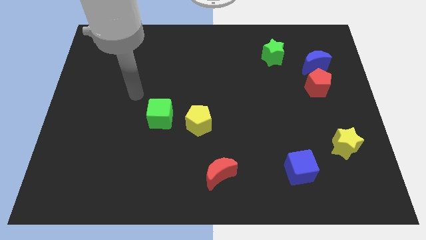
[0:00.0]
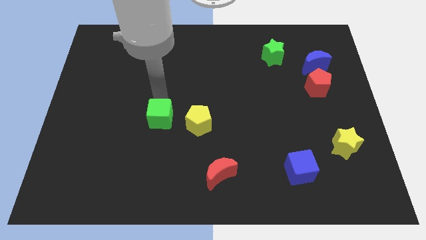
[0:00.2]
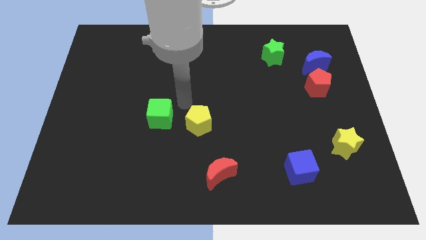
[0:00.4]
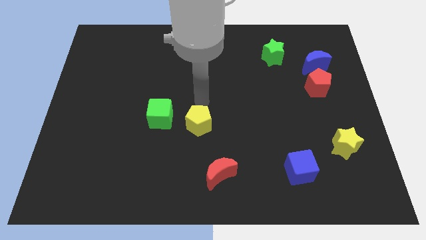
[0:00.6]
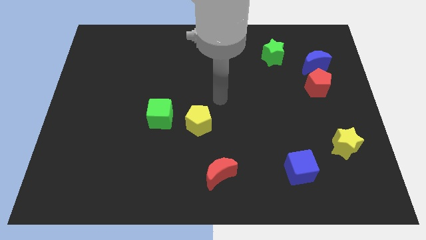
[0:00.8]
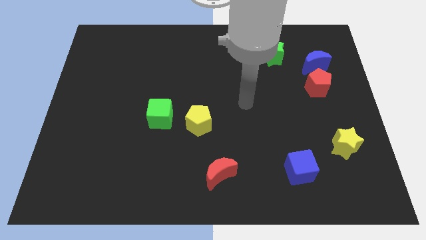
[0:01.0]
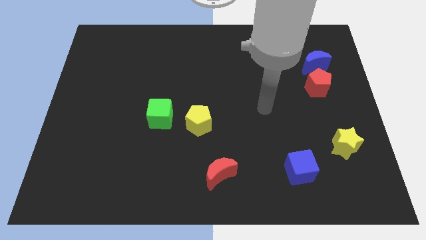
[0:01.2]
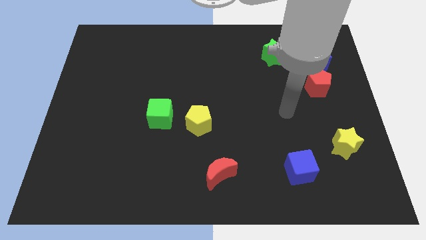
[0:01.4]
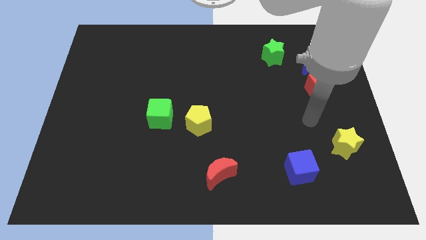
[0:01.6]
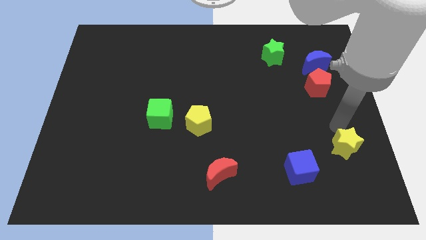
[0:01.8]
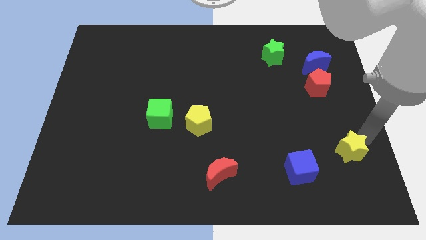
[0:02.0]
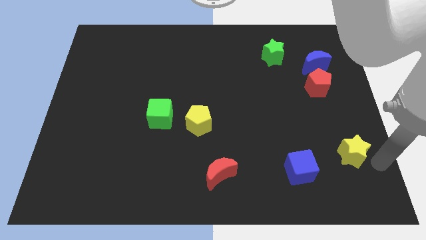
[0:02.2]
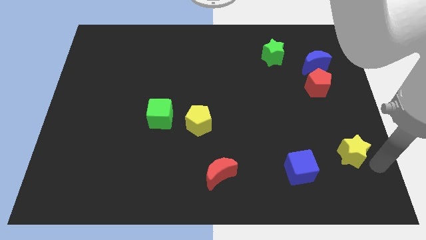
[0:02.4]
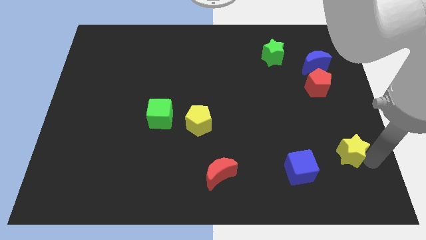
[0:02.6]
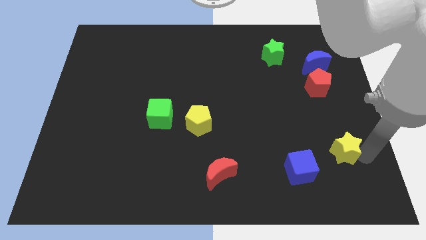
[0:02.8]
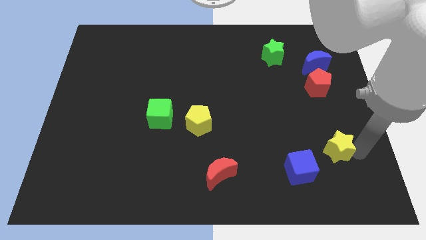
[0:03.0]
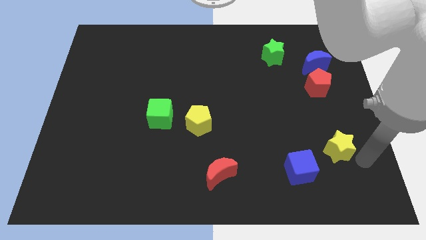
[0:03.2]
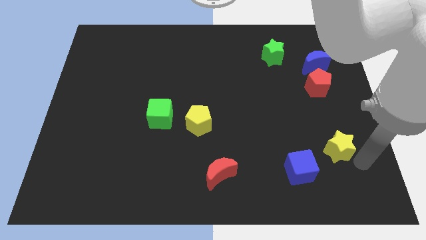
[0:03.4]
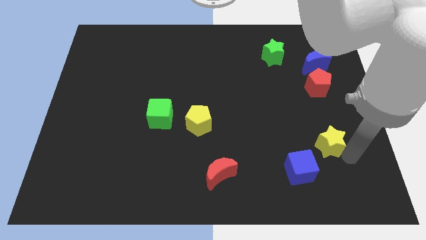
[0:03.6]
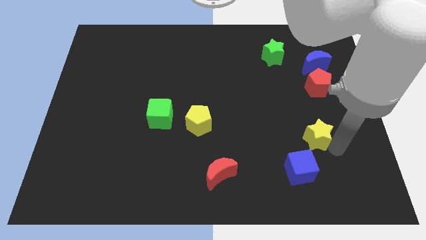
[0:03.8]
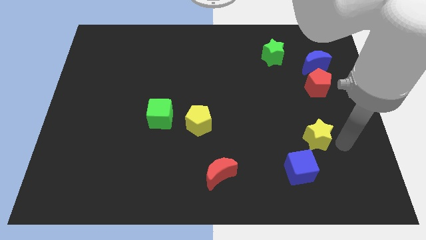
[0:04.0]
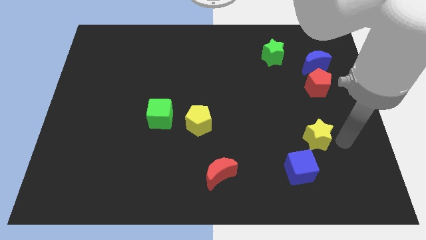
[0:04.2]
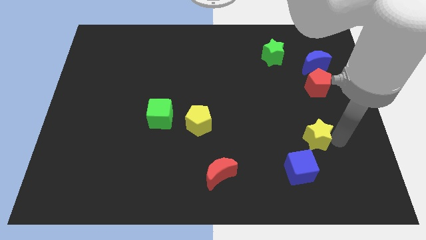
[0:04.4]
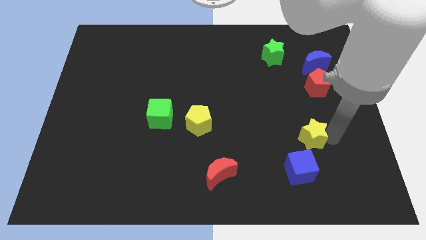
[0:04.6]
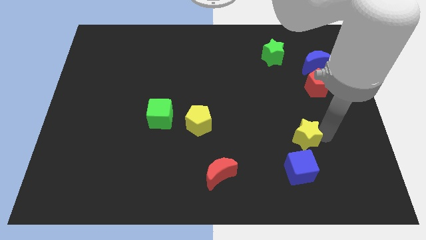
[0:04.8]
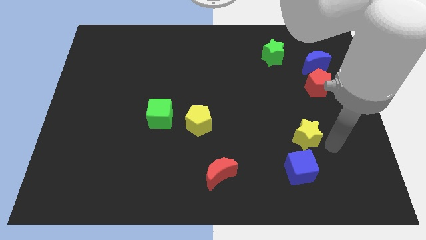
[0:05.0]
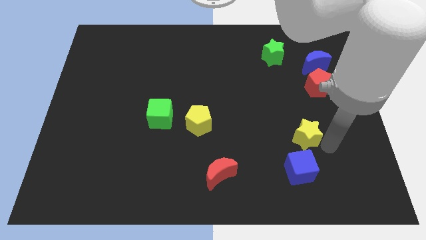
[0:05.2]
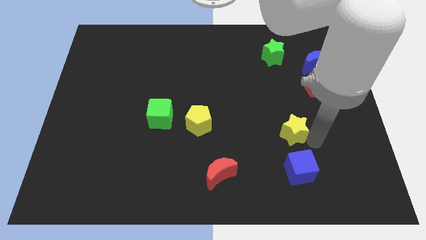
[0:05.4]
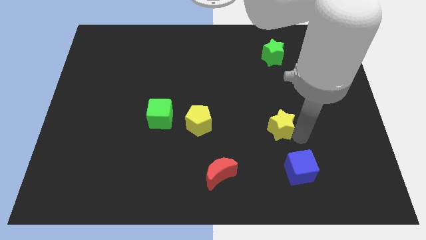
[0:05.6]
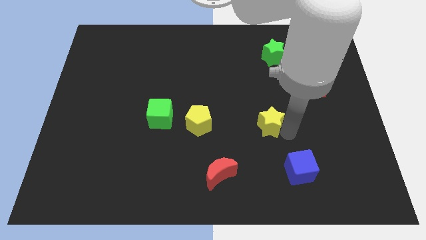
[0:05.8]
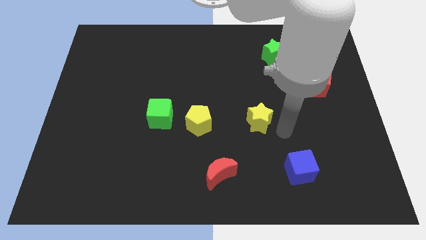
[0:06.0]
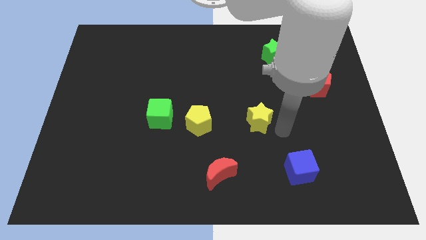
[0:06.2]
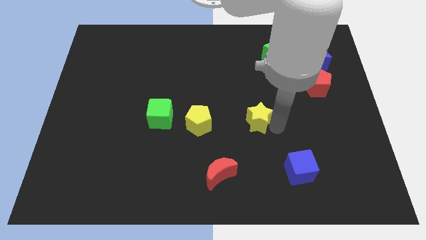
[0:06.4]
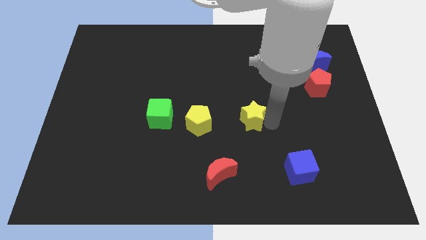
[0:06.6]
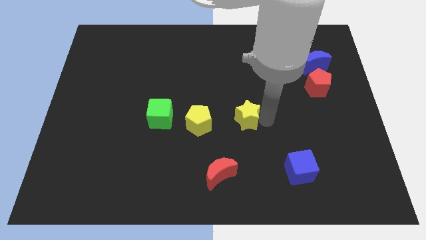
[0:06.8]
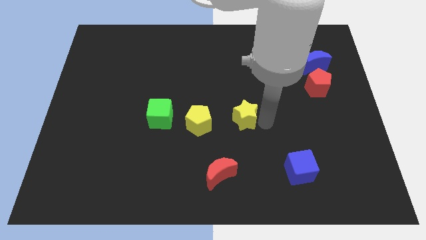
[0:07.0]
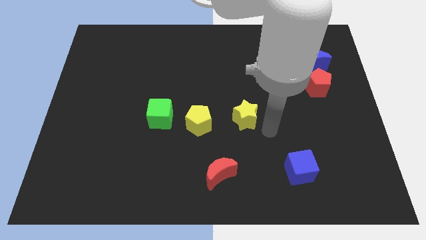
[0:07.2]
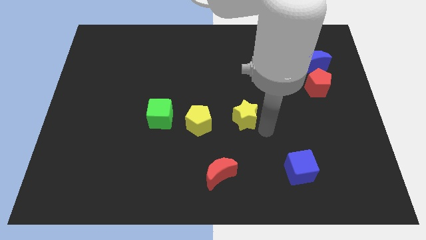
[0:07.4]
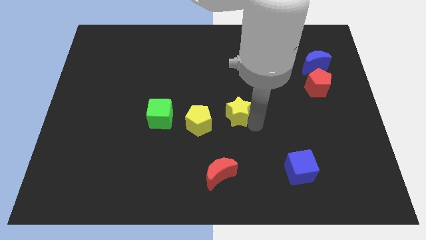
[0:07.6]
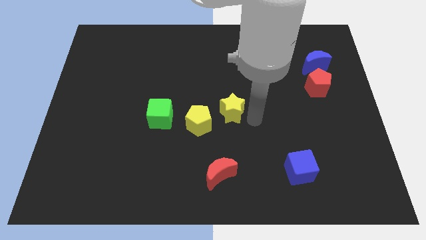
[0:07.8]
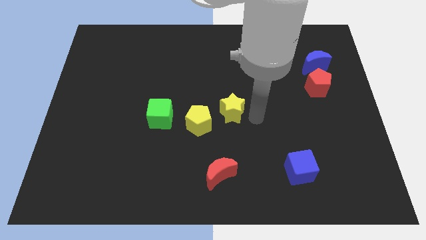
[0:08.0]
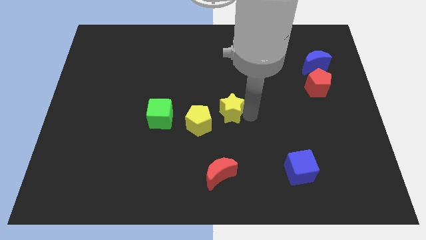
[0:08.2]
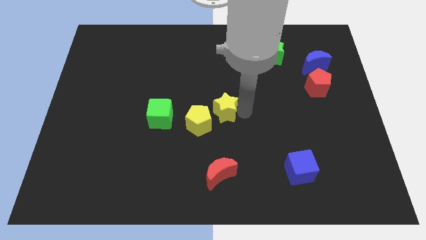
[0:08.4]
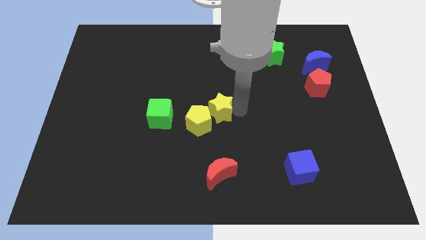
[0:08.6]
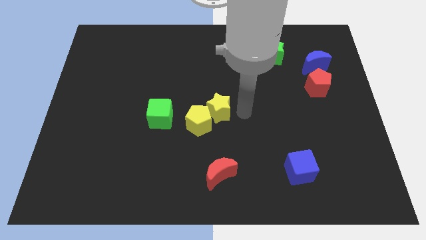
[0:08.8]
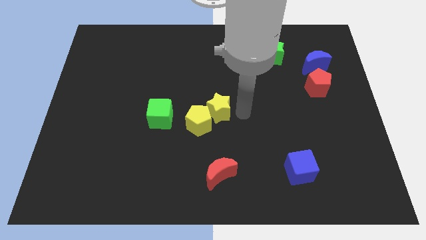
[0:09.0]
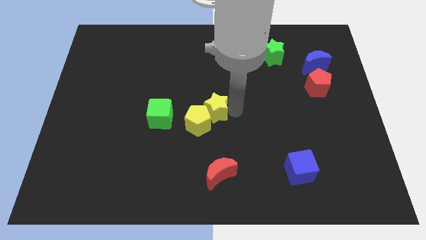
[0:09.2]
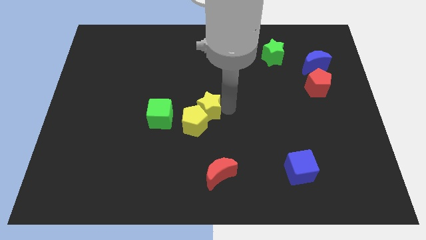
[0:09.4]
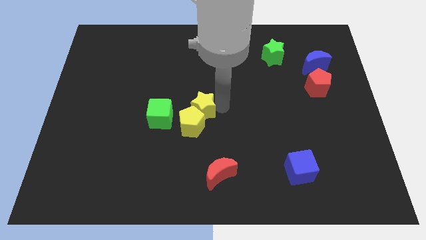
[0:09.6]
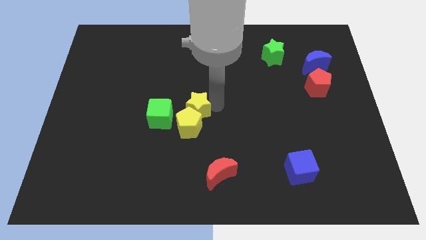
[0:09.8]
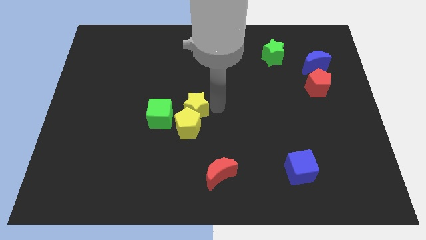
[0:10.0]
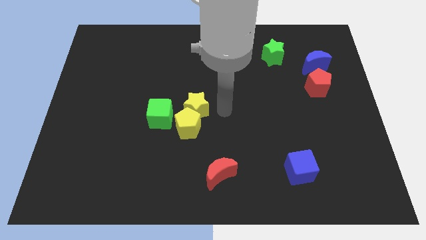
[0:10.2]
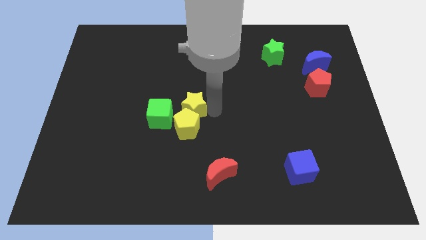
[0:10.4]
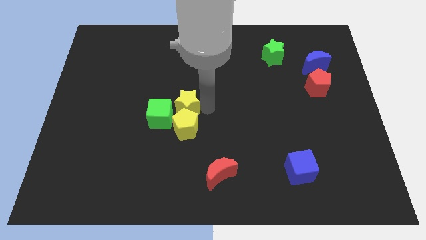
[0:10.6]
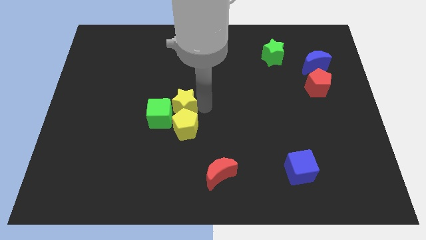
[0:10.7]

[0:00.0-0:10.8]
move the yellow star towards the green cube

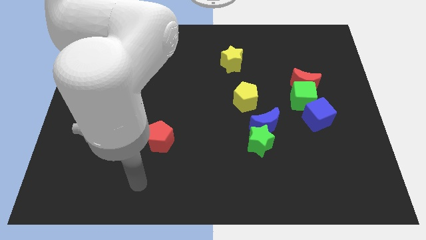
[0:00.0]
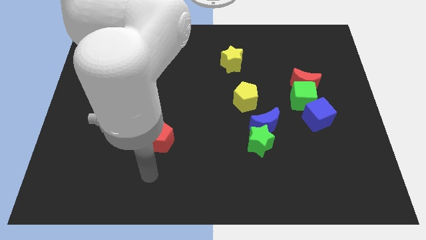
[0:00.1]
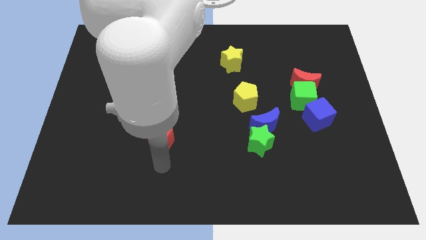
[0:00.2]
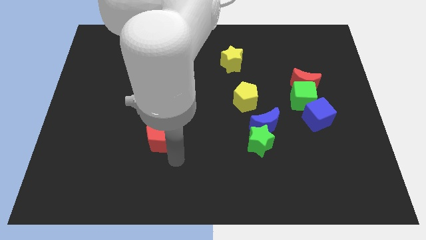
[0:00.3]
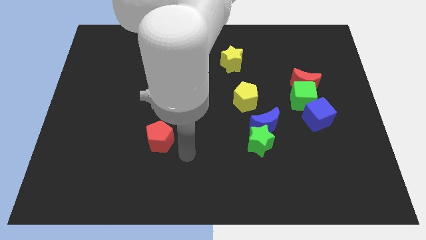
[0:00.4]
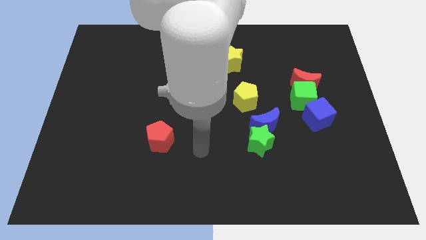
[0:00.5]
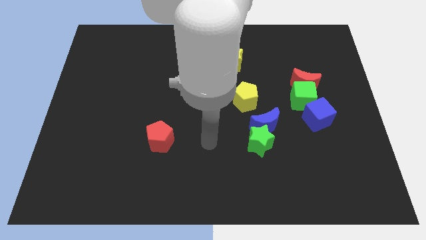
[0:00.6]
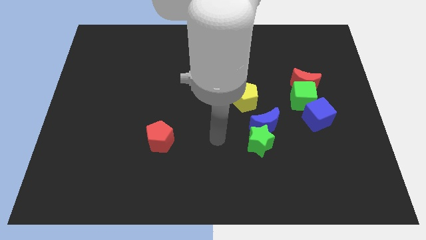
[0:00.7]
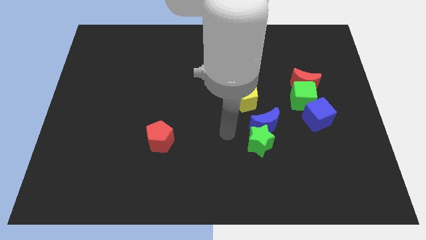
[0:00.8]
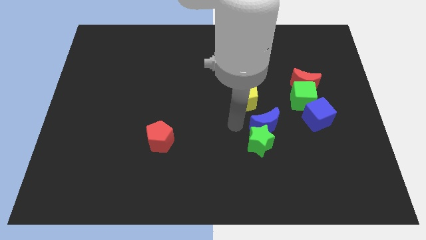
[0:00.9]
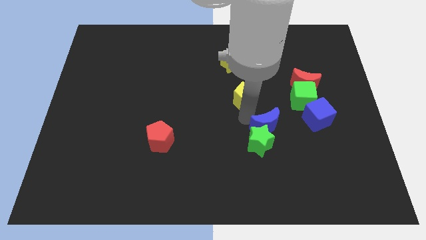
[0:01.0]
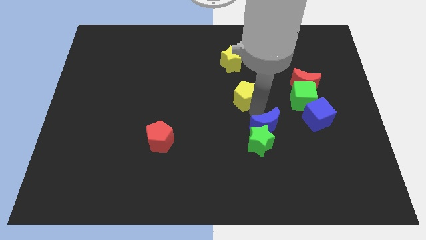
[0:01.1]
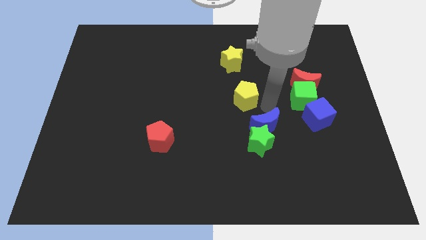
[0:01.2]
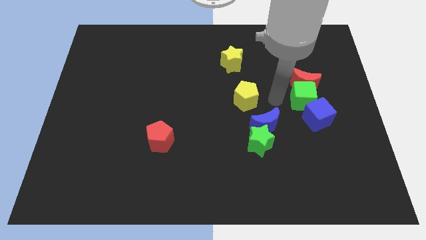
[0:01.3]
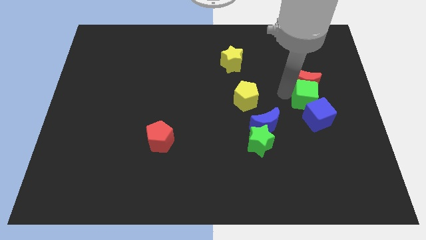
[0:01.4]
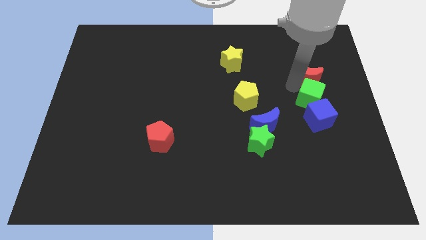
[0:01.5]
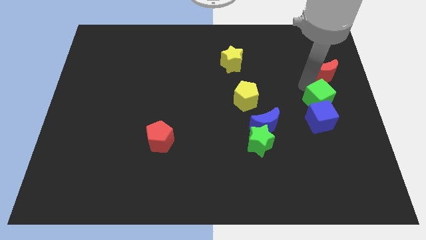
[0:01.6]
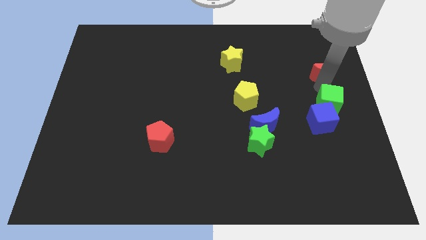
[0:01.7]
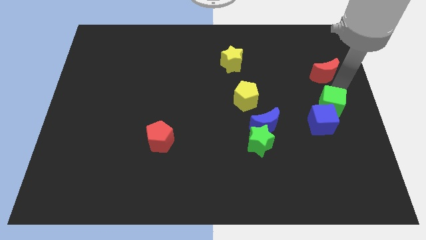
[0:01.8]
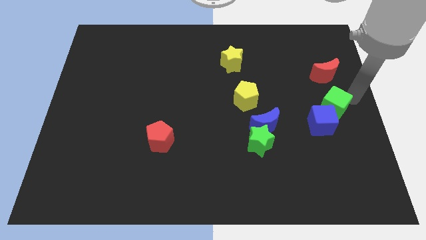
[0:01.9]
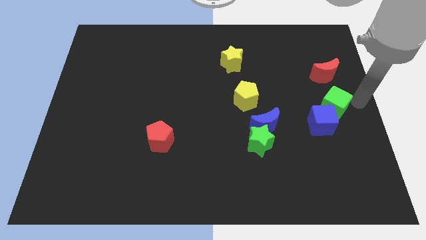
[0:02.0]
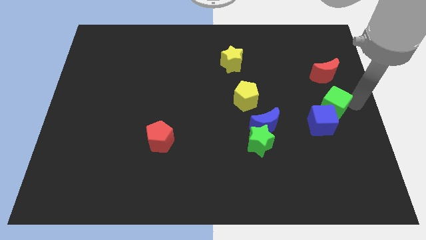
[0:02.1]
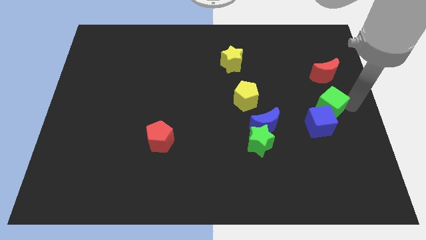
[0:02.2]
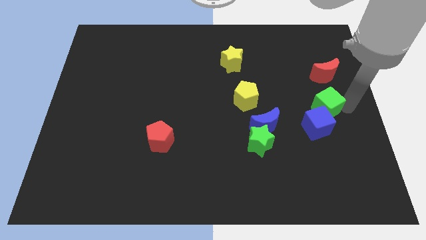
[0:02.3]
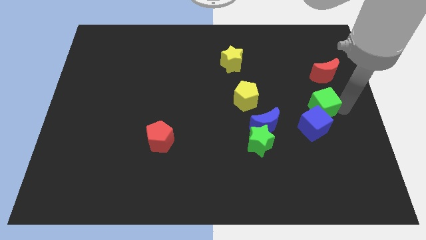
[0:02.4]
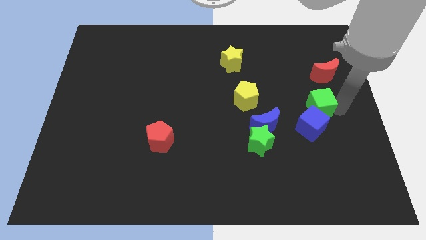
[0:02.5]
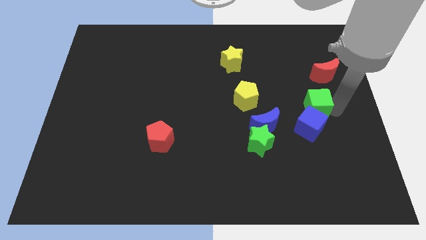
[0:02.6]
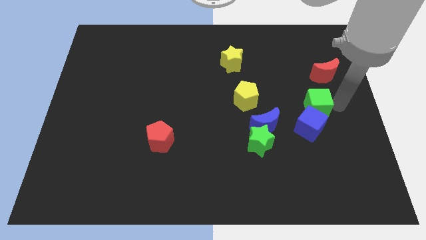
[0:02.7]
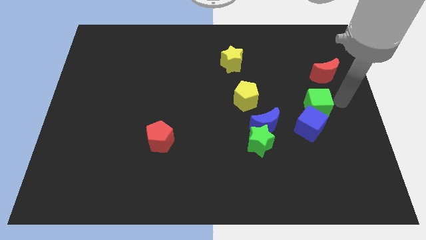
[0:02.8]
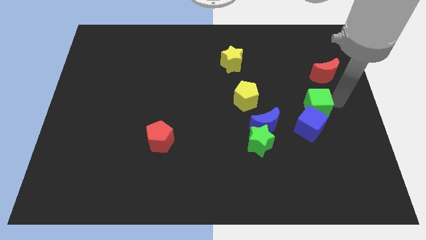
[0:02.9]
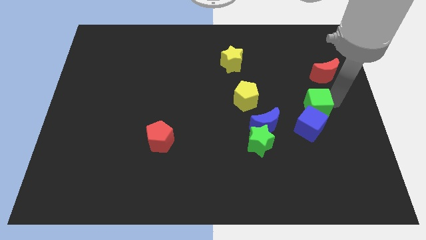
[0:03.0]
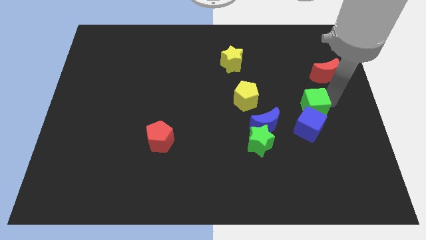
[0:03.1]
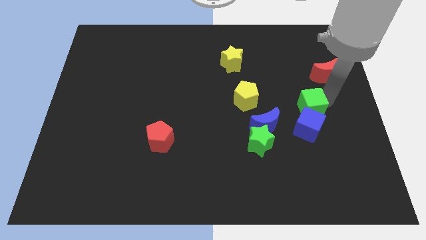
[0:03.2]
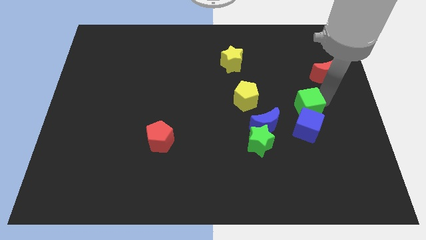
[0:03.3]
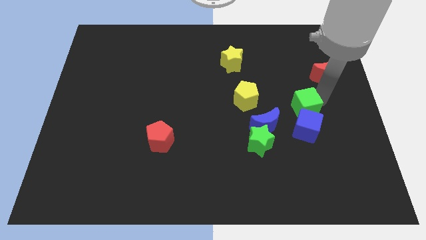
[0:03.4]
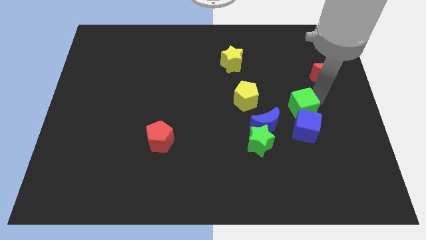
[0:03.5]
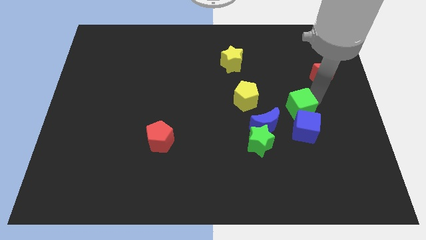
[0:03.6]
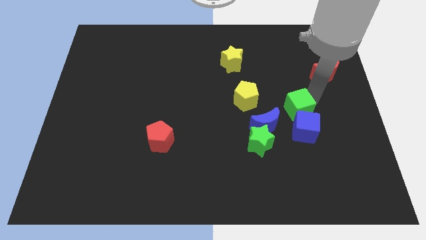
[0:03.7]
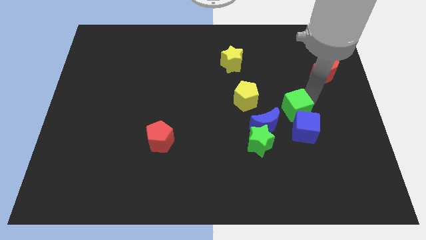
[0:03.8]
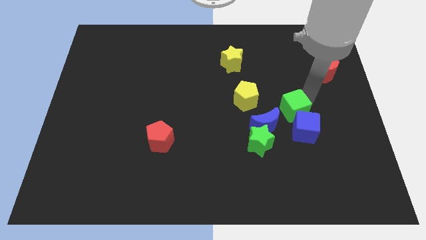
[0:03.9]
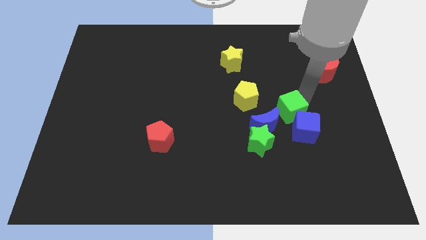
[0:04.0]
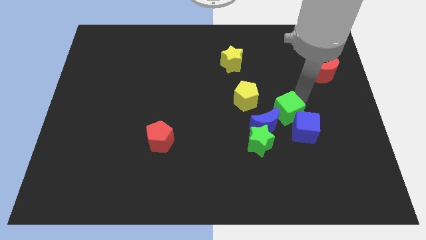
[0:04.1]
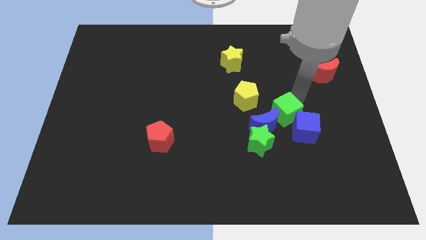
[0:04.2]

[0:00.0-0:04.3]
move the green cube next to the blue moon
